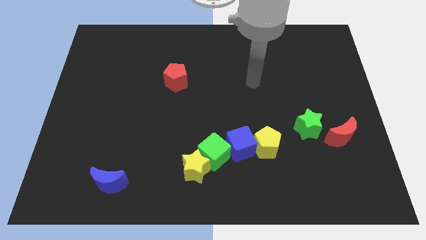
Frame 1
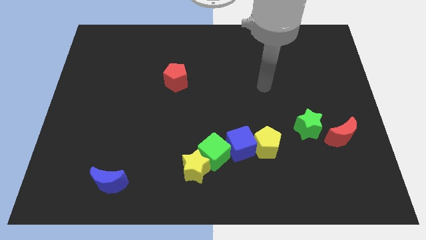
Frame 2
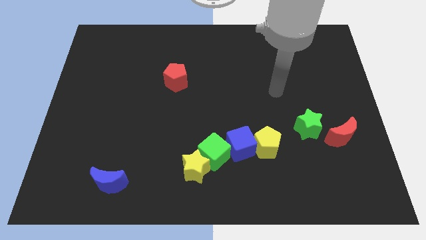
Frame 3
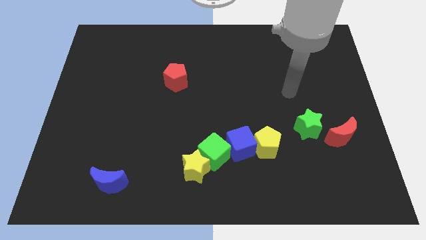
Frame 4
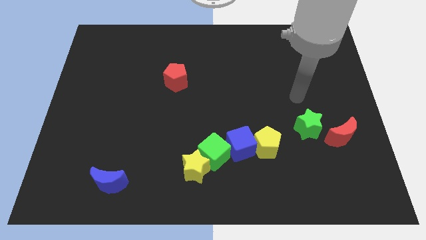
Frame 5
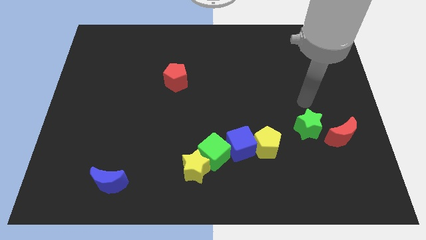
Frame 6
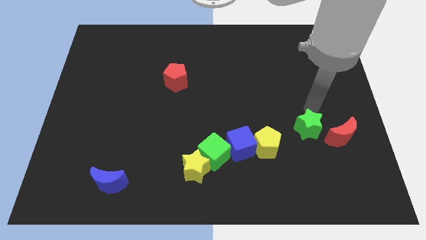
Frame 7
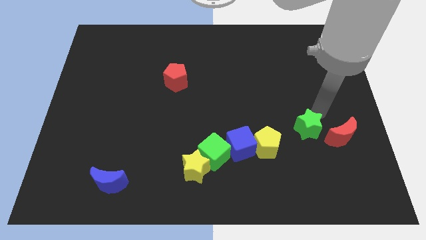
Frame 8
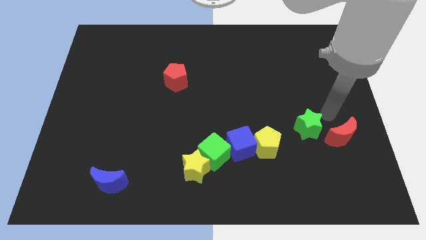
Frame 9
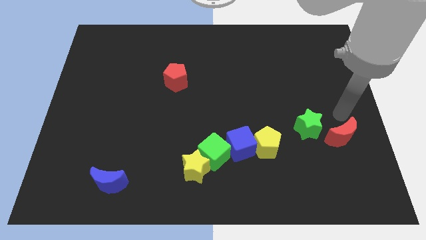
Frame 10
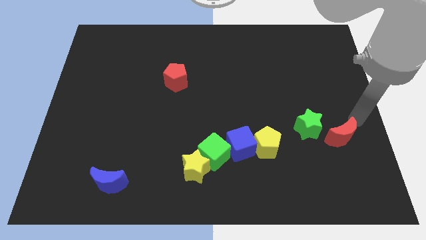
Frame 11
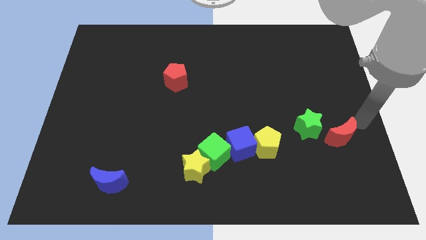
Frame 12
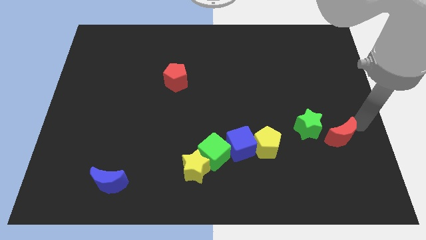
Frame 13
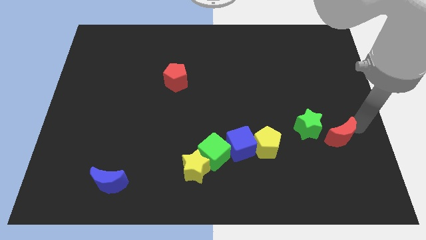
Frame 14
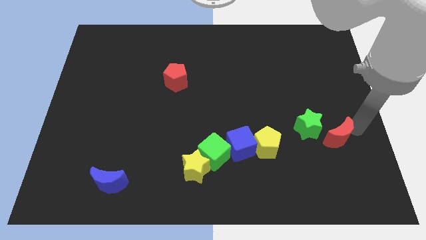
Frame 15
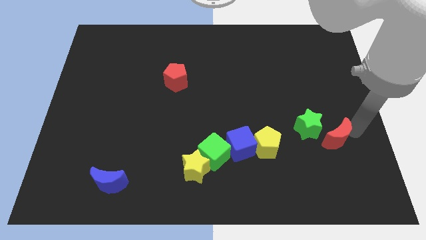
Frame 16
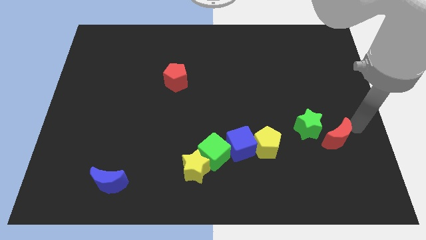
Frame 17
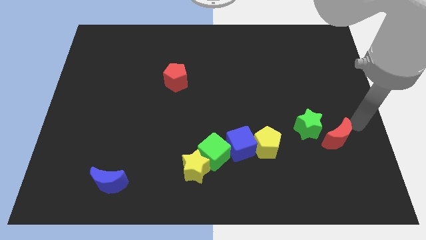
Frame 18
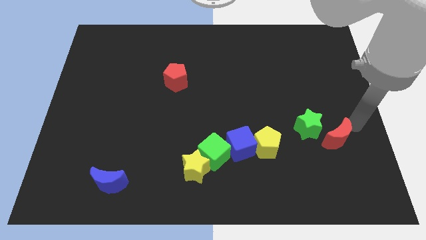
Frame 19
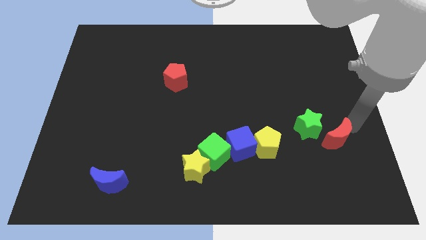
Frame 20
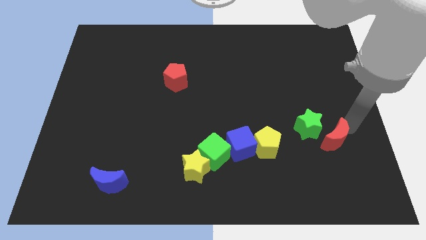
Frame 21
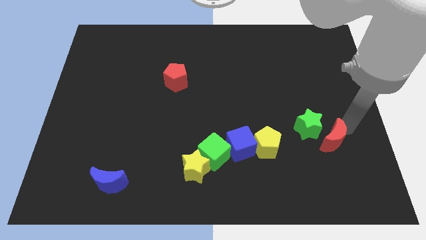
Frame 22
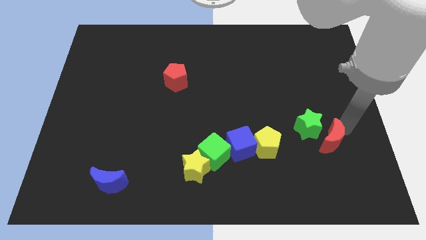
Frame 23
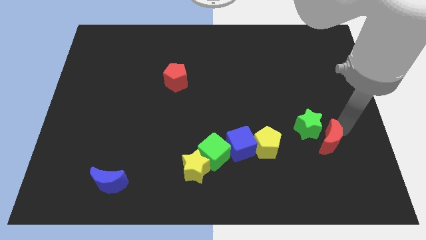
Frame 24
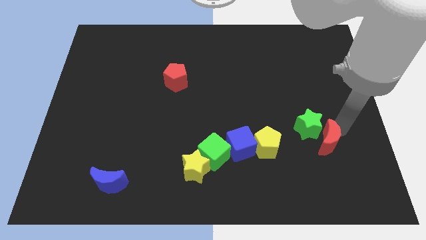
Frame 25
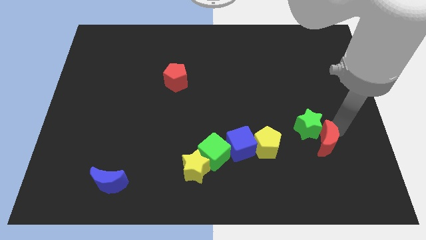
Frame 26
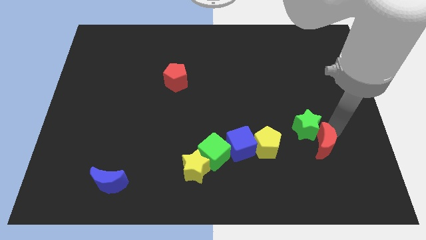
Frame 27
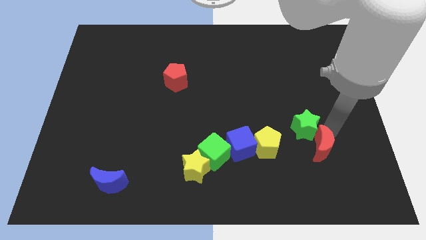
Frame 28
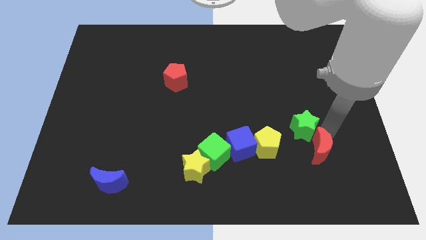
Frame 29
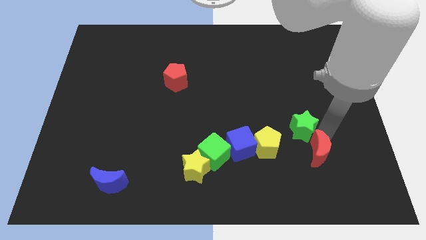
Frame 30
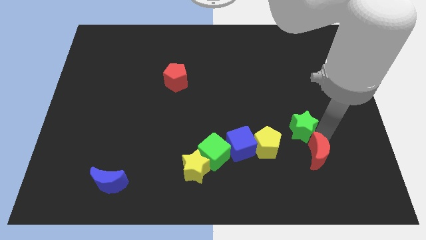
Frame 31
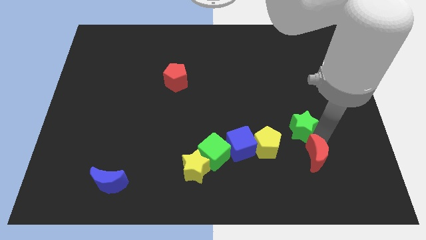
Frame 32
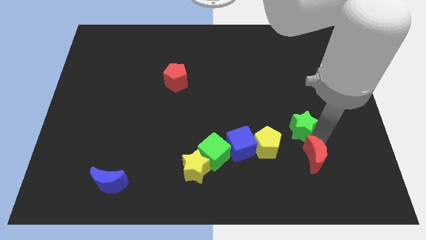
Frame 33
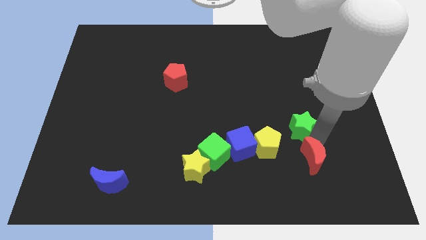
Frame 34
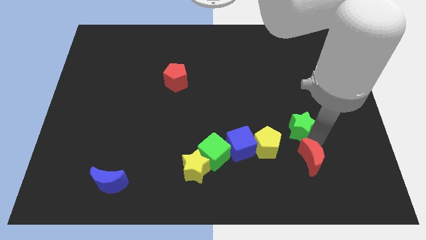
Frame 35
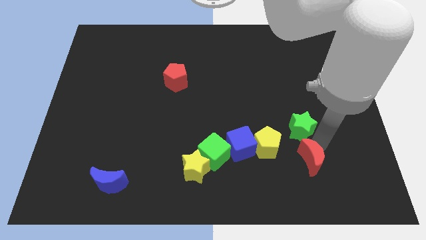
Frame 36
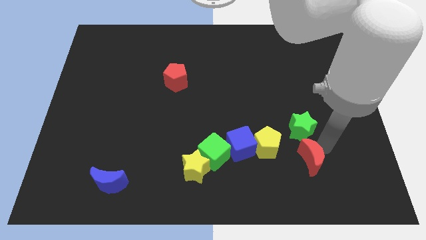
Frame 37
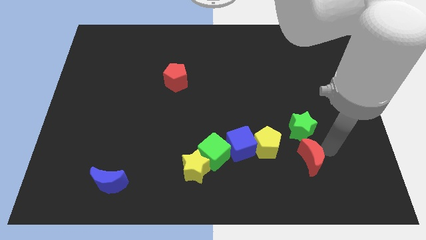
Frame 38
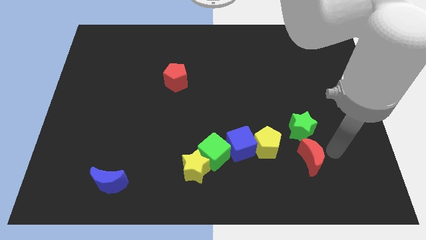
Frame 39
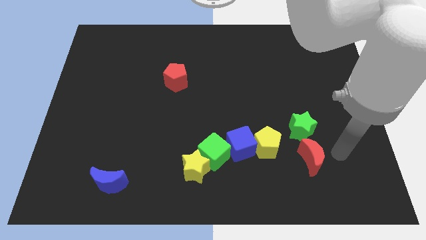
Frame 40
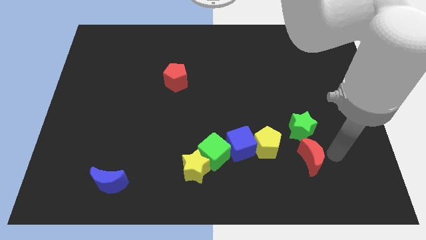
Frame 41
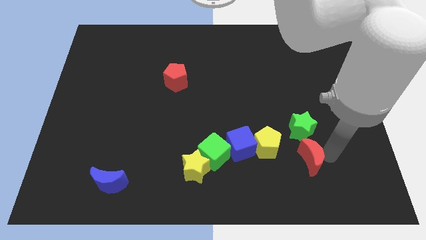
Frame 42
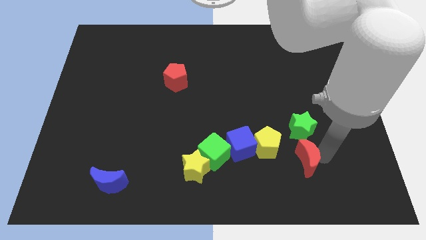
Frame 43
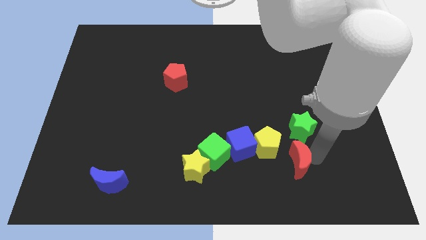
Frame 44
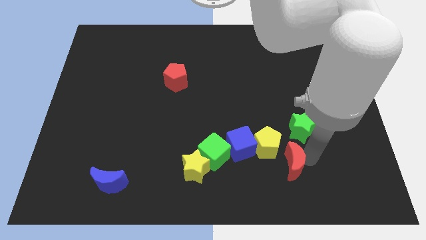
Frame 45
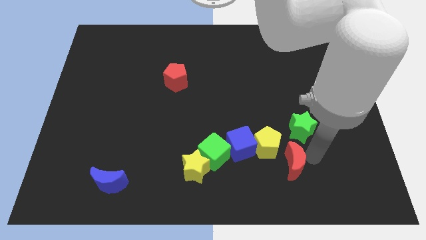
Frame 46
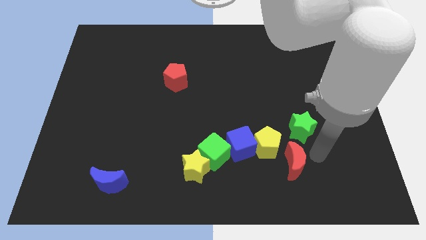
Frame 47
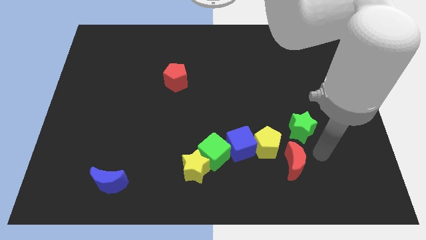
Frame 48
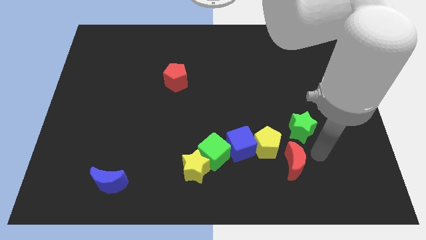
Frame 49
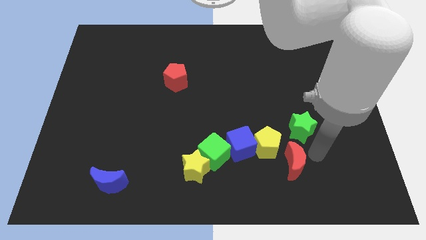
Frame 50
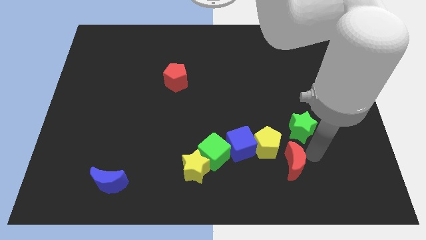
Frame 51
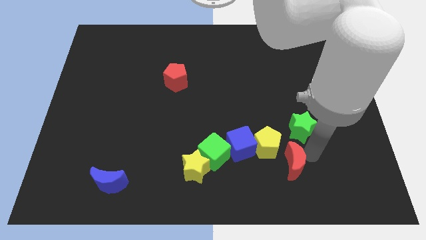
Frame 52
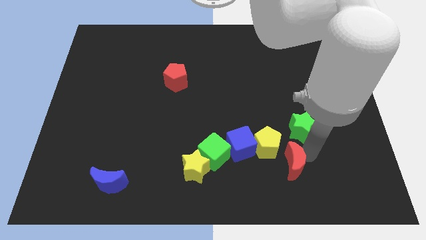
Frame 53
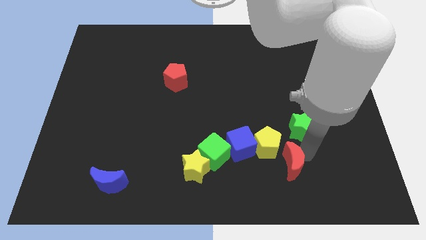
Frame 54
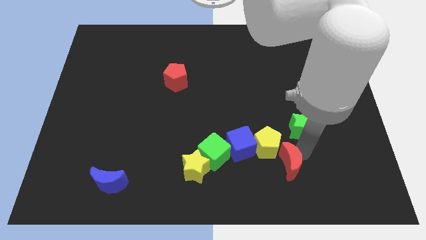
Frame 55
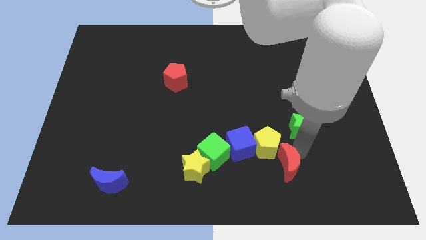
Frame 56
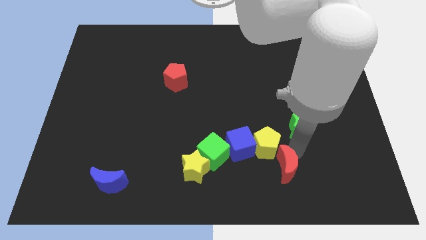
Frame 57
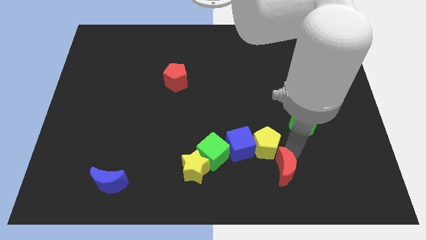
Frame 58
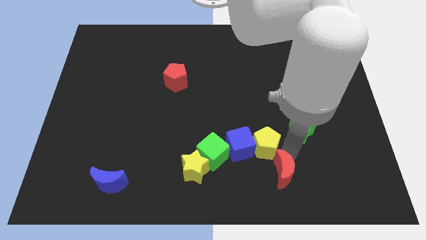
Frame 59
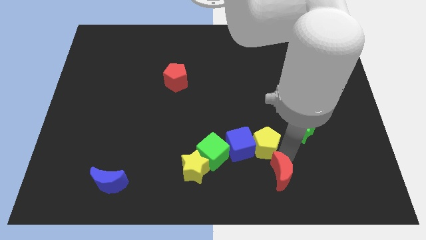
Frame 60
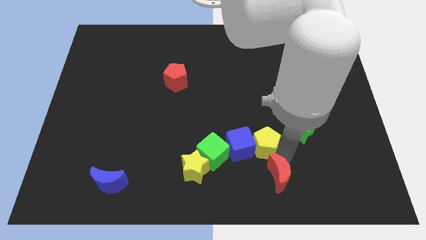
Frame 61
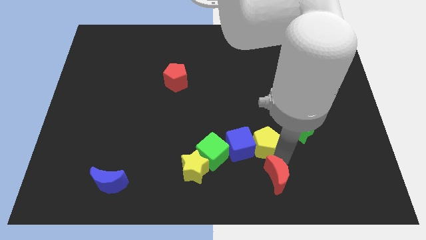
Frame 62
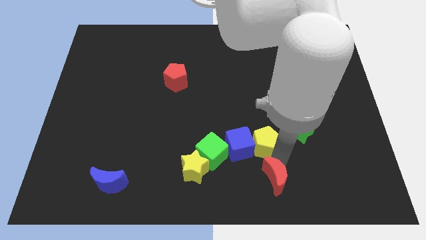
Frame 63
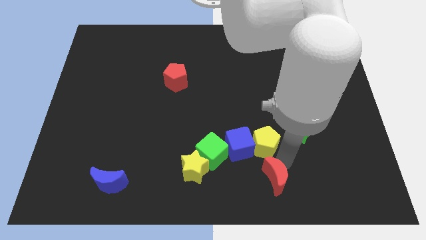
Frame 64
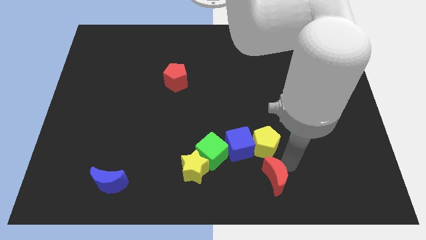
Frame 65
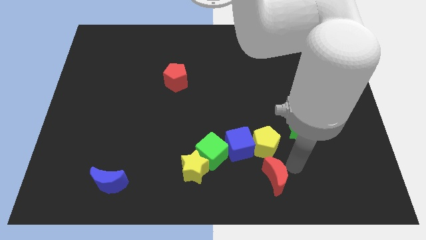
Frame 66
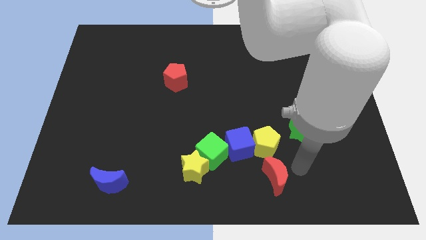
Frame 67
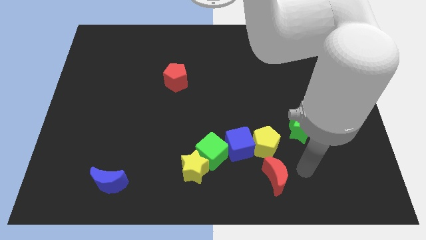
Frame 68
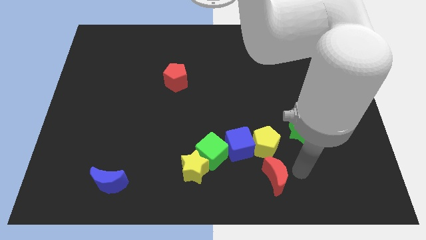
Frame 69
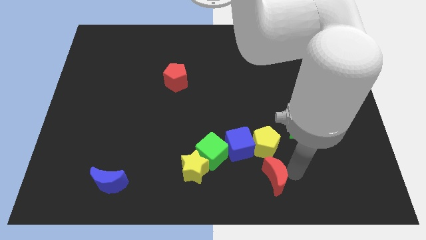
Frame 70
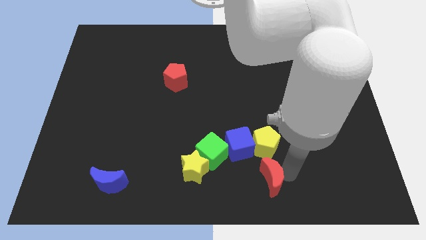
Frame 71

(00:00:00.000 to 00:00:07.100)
put the red moon to the bottom side

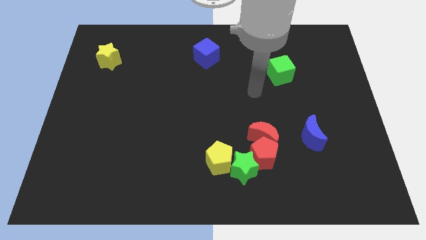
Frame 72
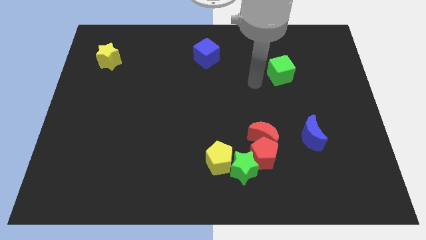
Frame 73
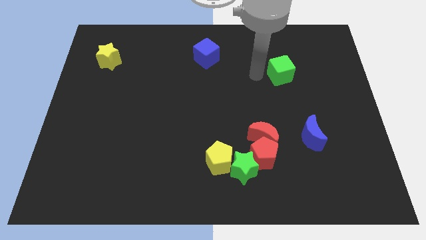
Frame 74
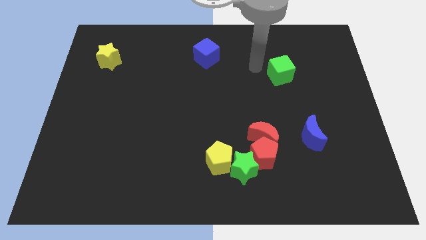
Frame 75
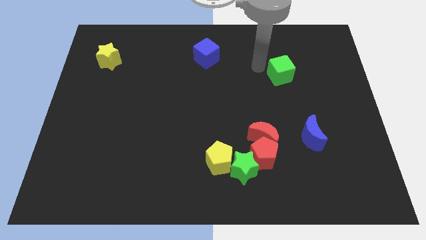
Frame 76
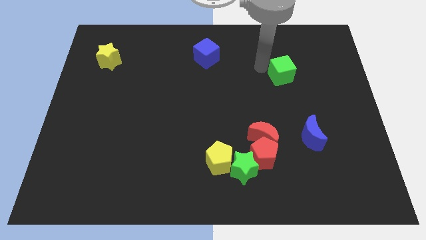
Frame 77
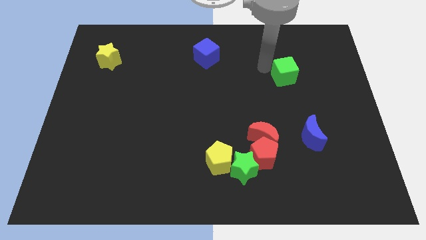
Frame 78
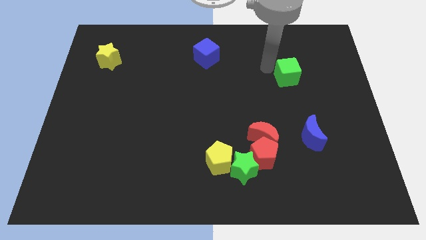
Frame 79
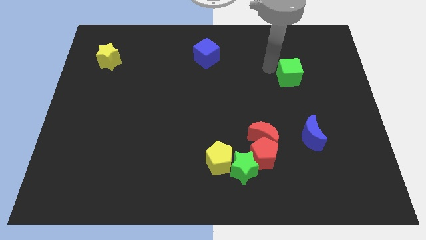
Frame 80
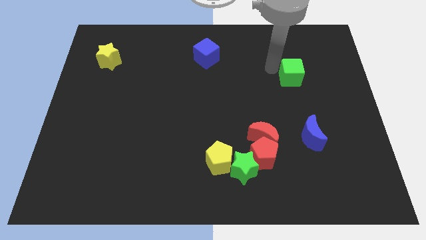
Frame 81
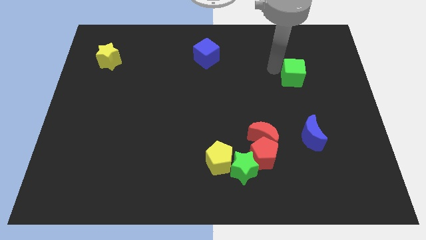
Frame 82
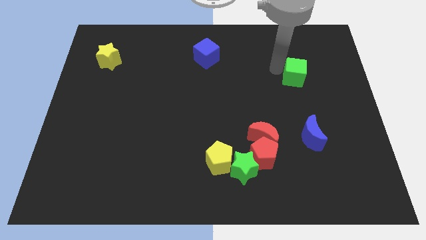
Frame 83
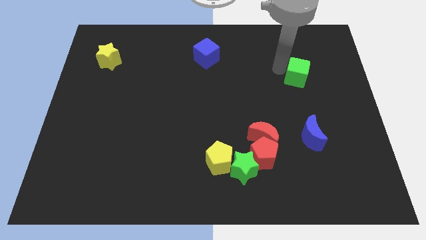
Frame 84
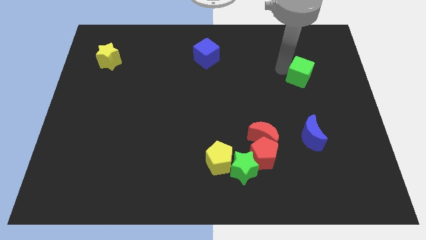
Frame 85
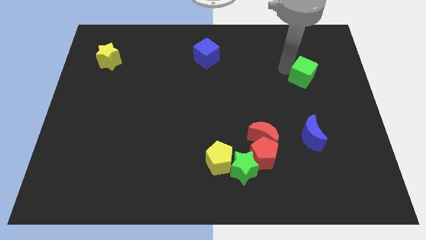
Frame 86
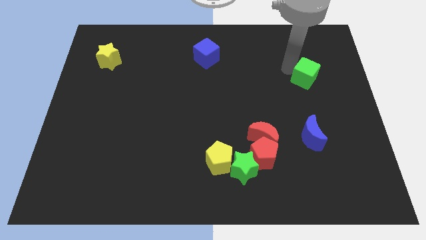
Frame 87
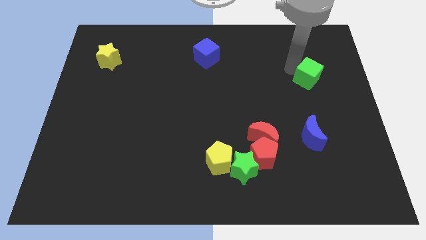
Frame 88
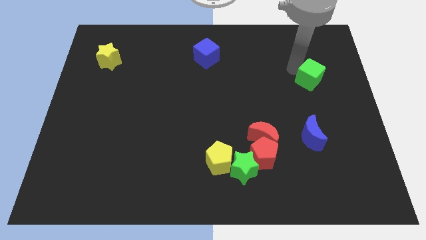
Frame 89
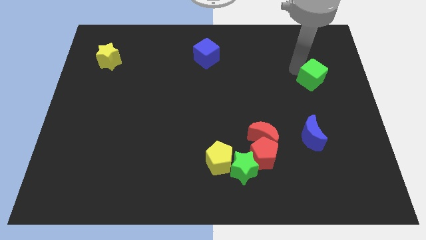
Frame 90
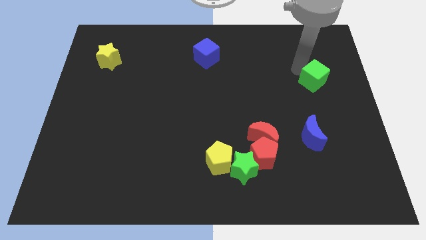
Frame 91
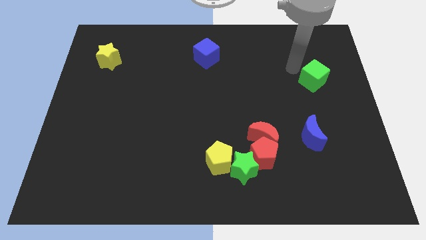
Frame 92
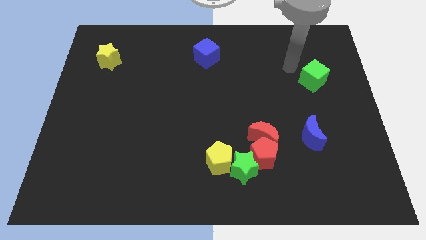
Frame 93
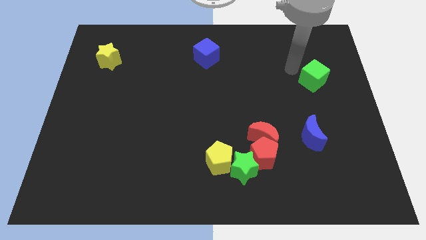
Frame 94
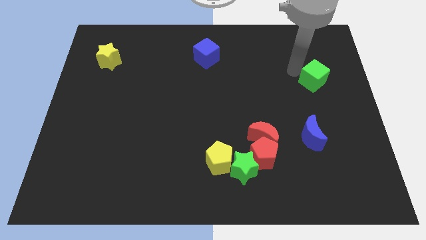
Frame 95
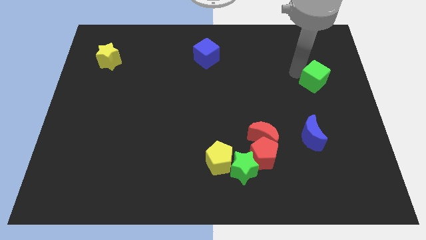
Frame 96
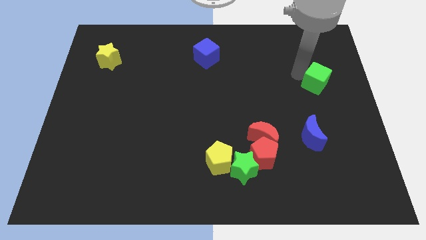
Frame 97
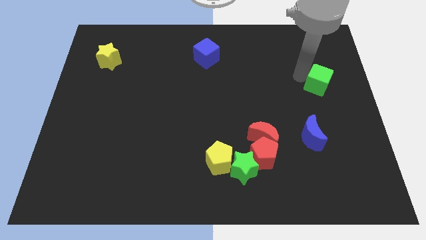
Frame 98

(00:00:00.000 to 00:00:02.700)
push the green cube to the right side
